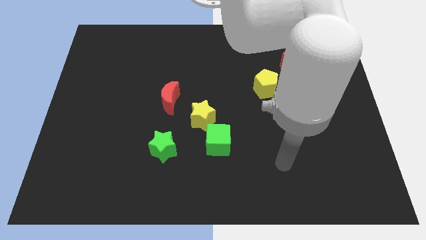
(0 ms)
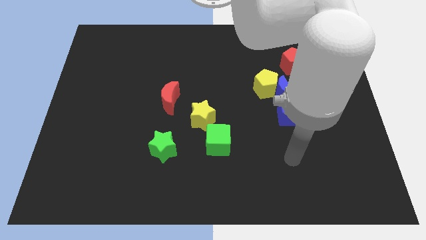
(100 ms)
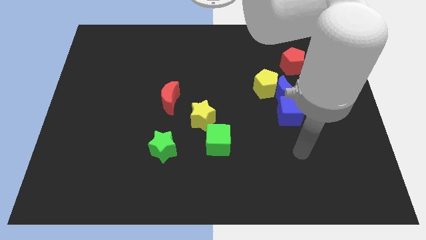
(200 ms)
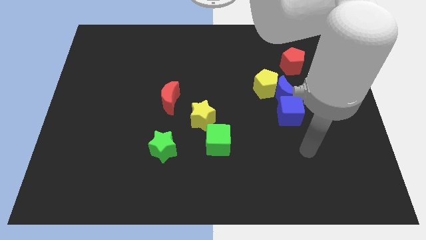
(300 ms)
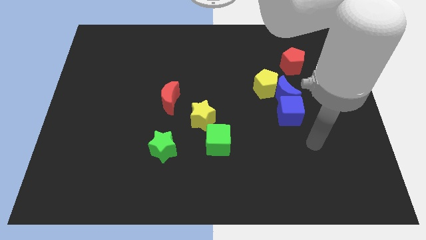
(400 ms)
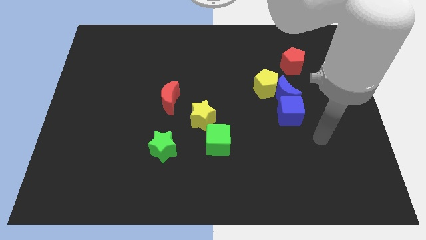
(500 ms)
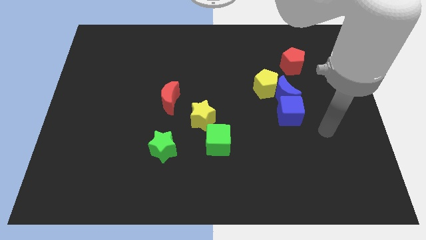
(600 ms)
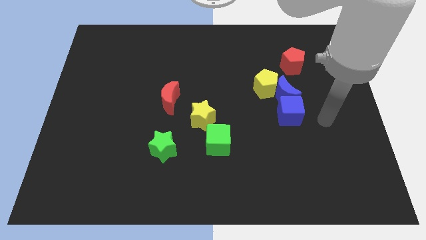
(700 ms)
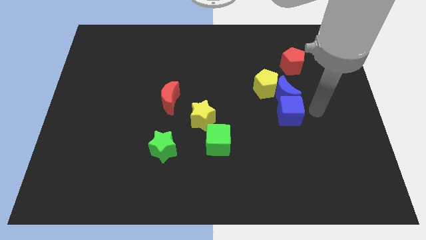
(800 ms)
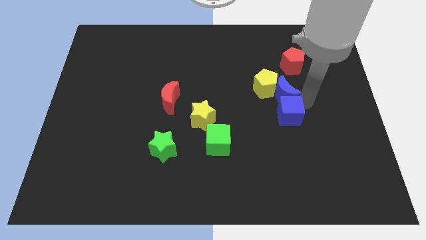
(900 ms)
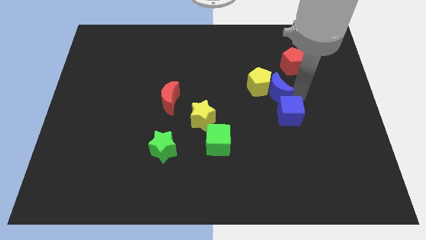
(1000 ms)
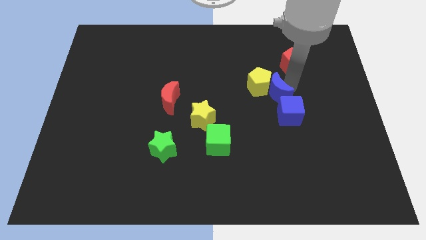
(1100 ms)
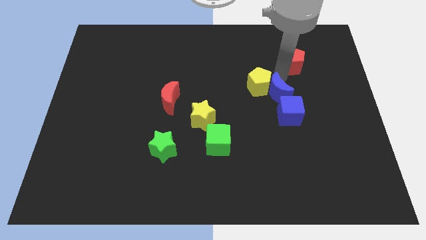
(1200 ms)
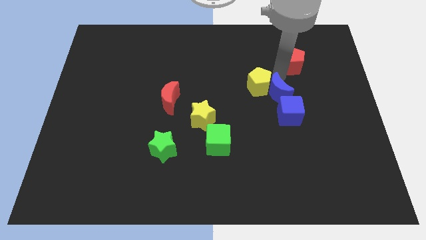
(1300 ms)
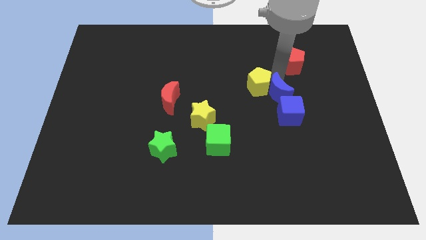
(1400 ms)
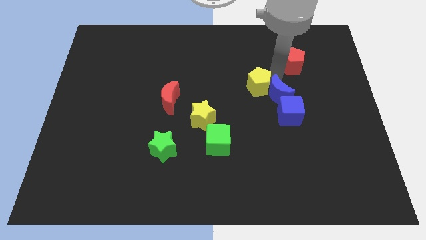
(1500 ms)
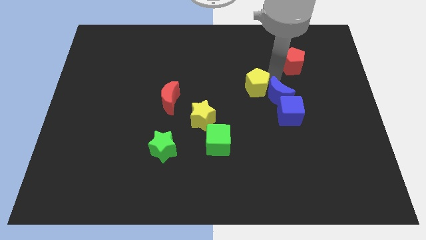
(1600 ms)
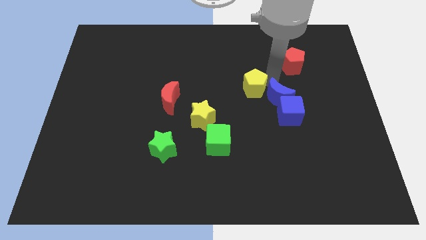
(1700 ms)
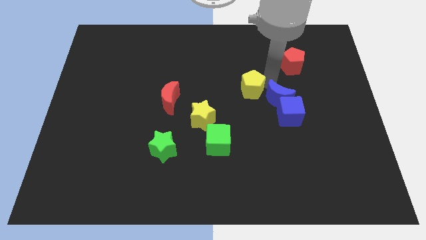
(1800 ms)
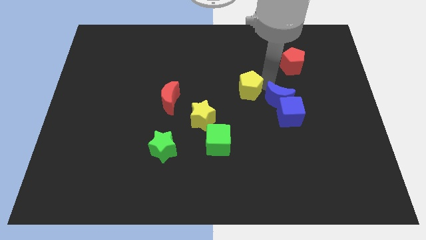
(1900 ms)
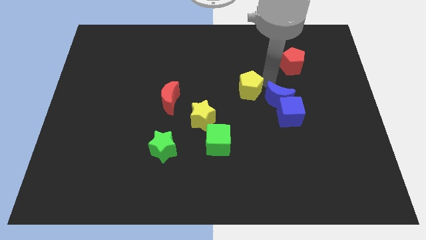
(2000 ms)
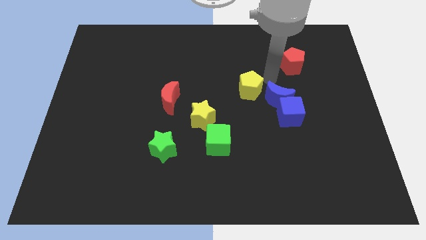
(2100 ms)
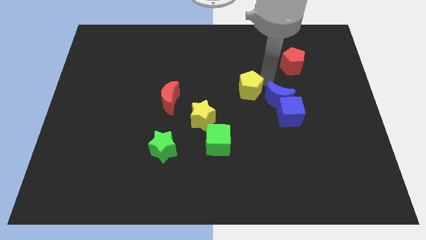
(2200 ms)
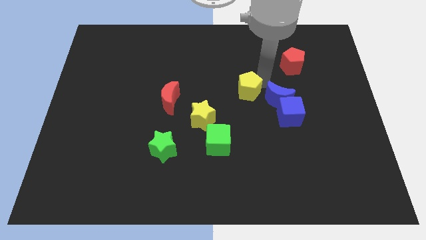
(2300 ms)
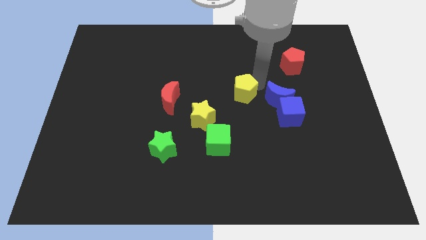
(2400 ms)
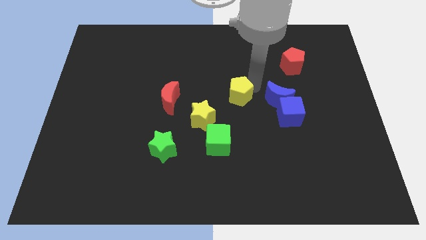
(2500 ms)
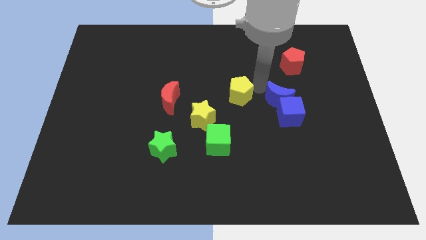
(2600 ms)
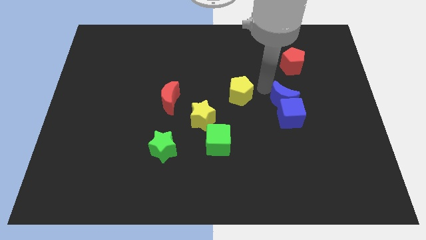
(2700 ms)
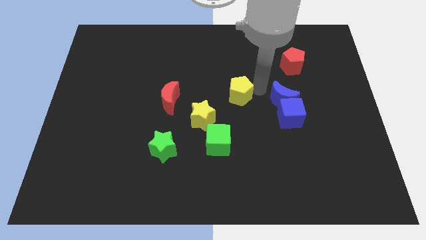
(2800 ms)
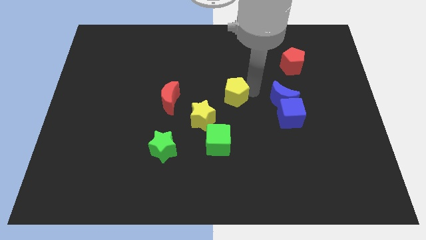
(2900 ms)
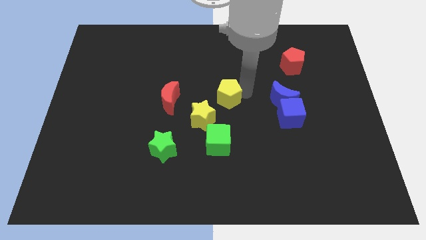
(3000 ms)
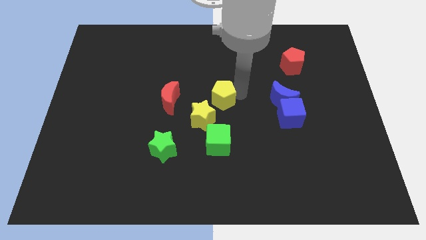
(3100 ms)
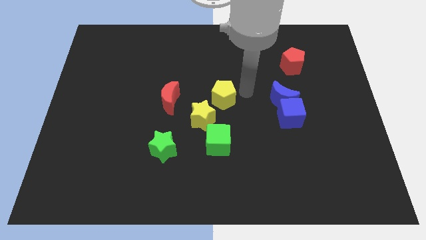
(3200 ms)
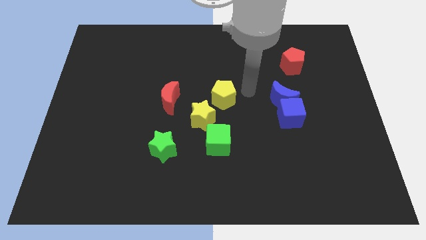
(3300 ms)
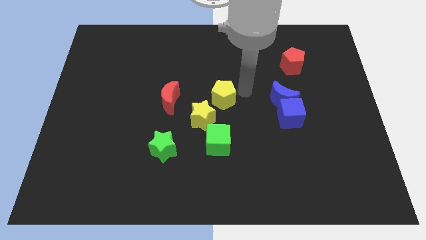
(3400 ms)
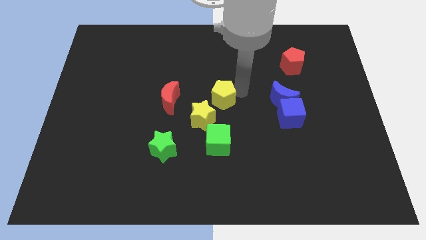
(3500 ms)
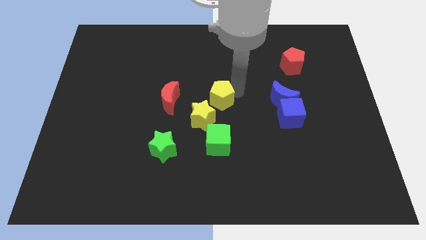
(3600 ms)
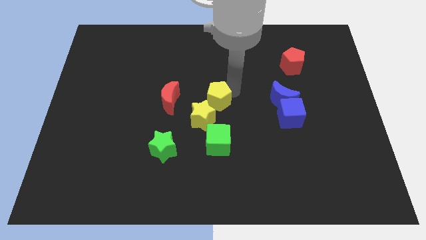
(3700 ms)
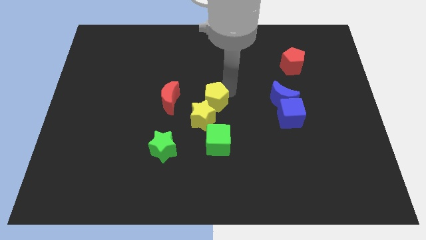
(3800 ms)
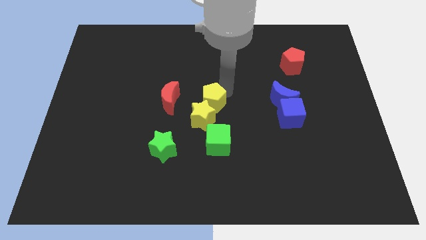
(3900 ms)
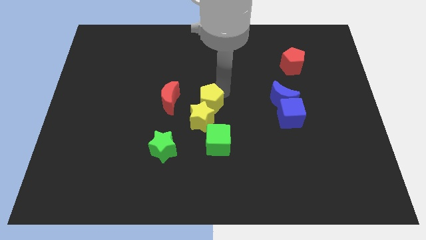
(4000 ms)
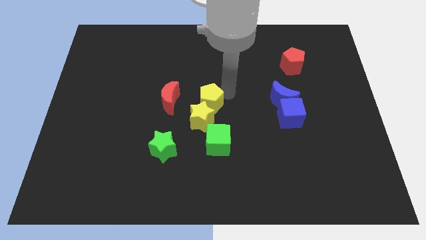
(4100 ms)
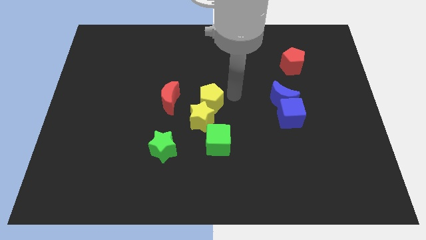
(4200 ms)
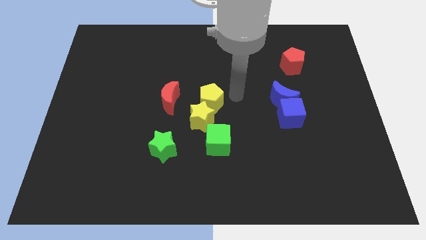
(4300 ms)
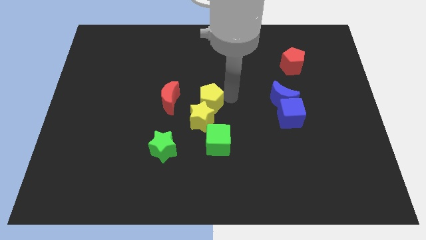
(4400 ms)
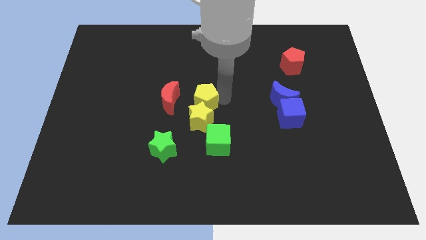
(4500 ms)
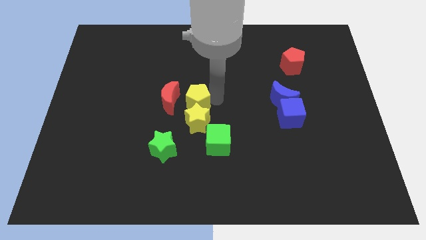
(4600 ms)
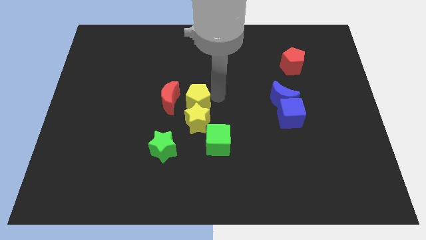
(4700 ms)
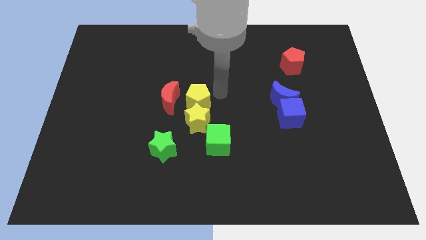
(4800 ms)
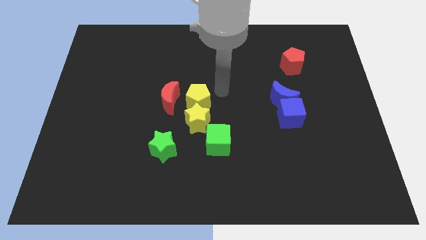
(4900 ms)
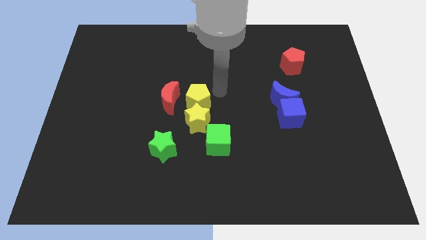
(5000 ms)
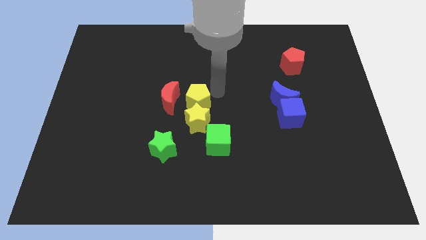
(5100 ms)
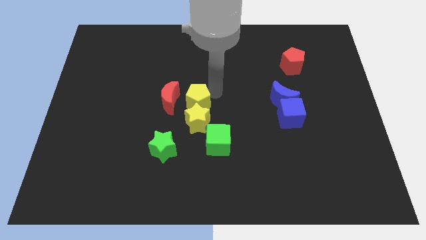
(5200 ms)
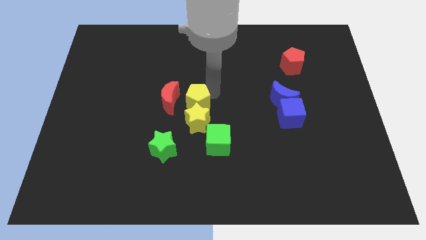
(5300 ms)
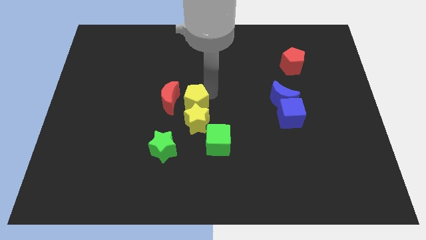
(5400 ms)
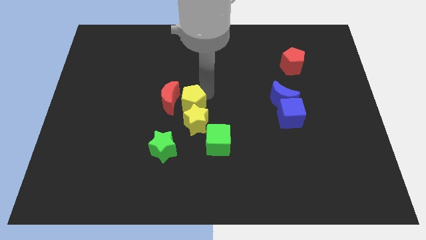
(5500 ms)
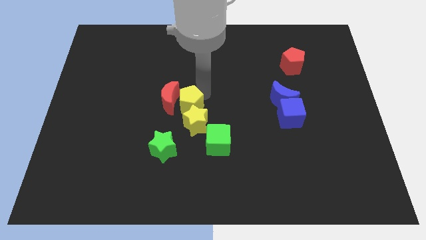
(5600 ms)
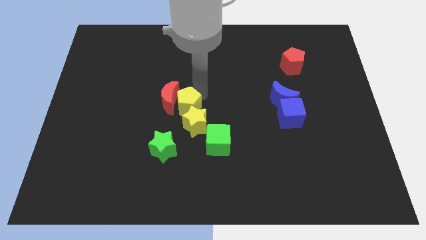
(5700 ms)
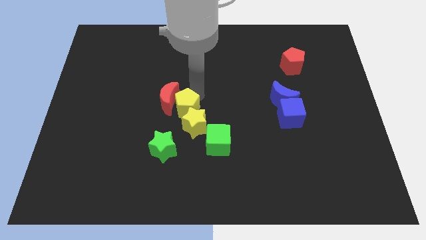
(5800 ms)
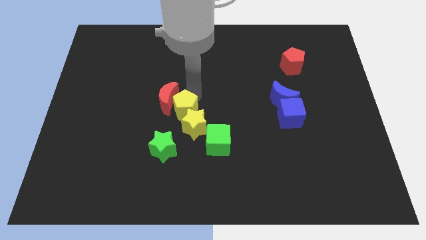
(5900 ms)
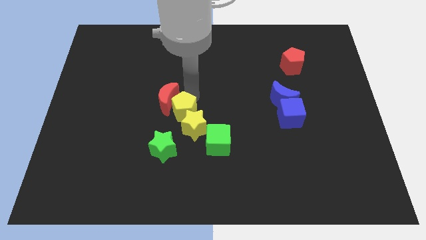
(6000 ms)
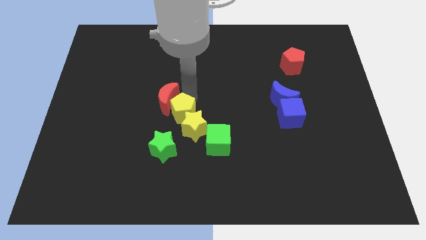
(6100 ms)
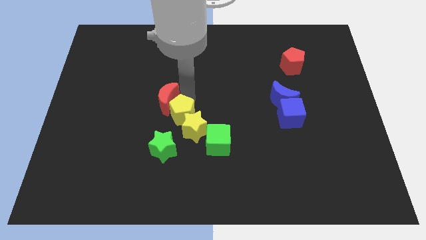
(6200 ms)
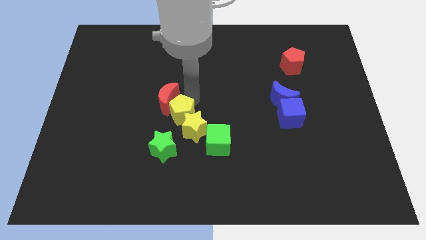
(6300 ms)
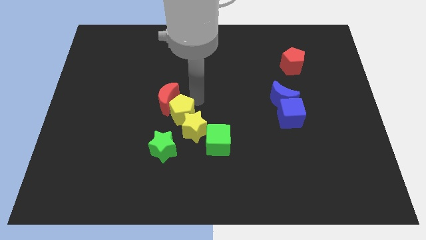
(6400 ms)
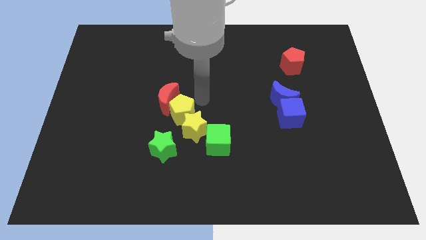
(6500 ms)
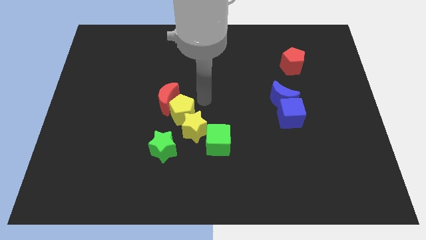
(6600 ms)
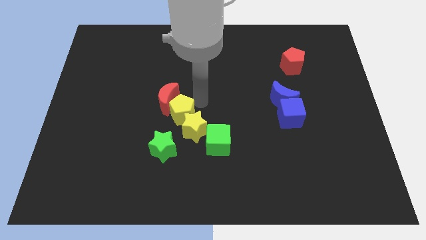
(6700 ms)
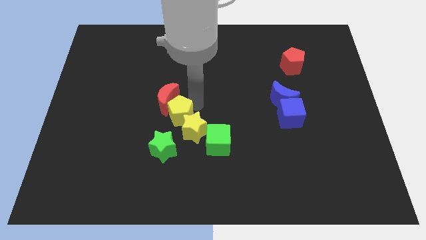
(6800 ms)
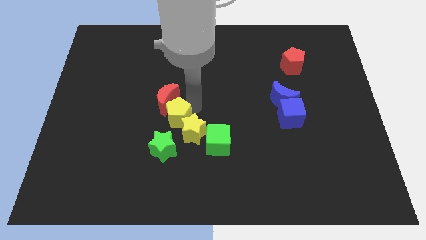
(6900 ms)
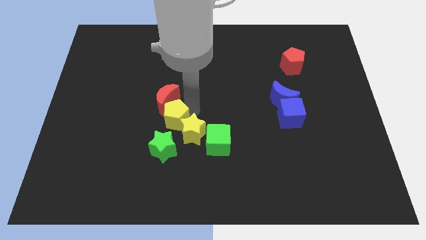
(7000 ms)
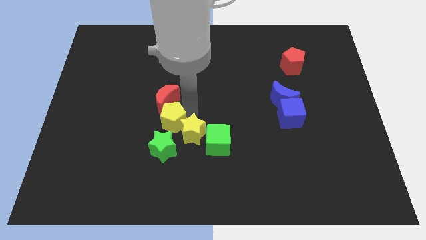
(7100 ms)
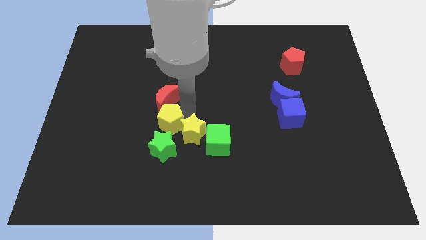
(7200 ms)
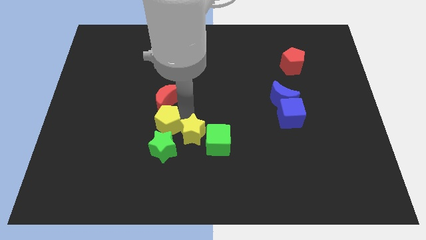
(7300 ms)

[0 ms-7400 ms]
slide the yellow pentagon to the bottom left of the red moon
